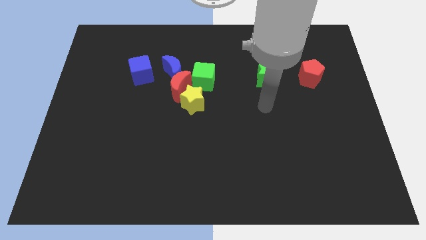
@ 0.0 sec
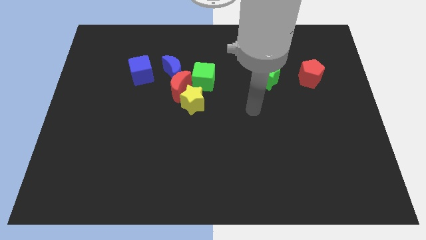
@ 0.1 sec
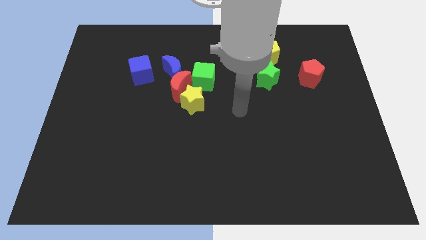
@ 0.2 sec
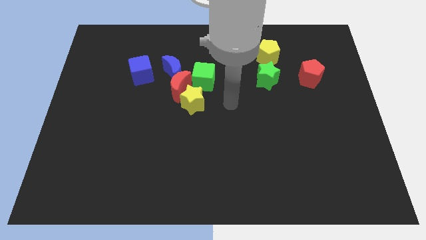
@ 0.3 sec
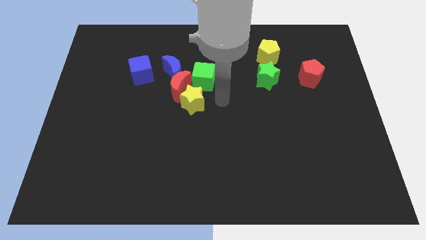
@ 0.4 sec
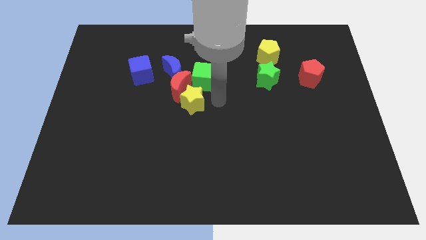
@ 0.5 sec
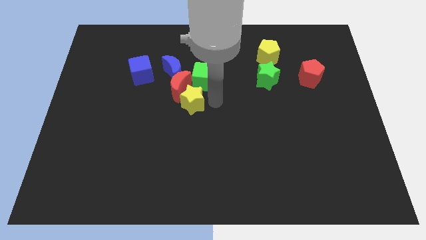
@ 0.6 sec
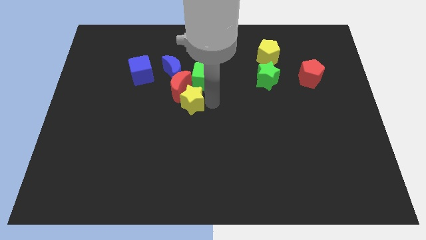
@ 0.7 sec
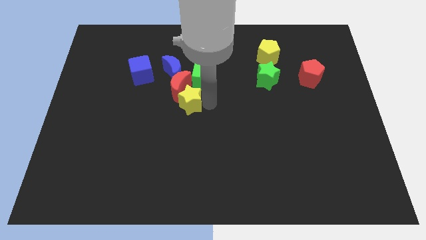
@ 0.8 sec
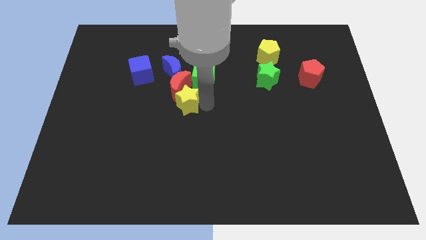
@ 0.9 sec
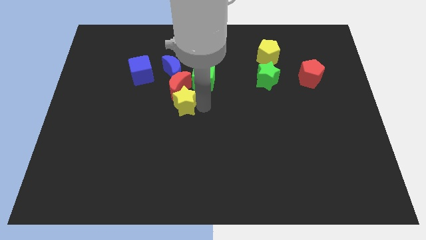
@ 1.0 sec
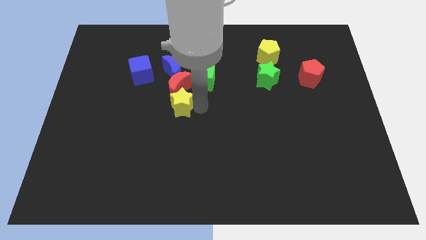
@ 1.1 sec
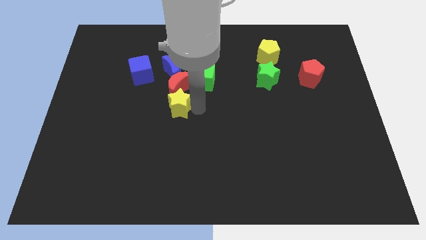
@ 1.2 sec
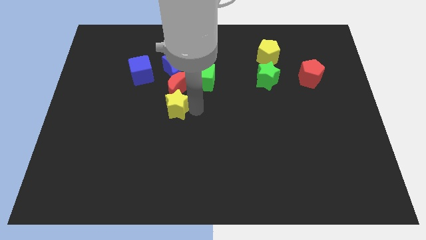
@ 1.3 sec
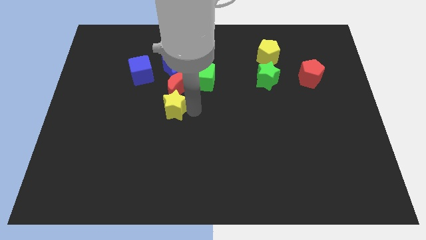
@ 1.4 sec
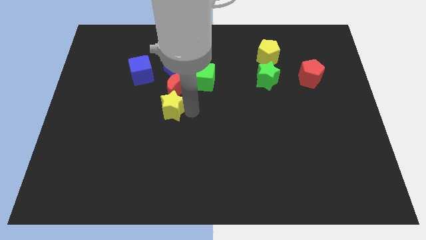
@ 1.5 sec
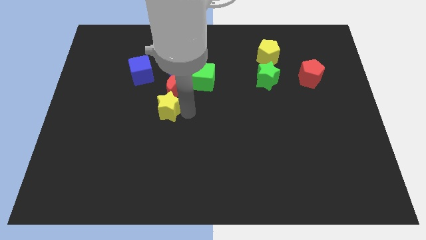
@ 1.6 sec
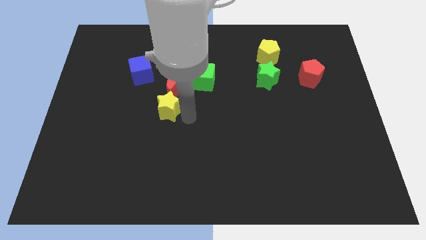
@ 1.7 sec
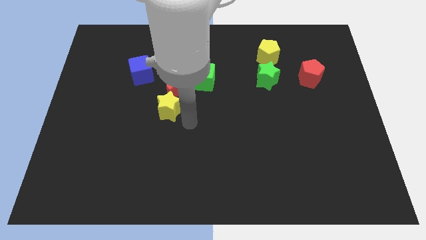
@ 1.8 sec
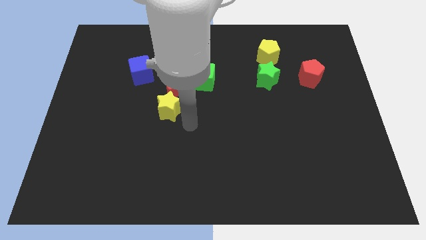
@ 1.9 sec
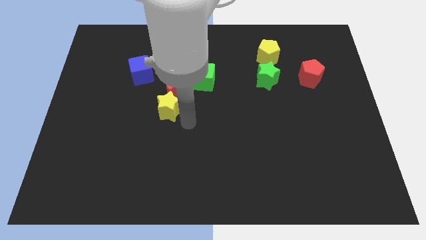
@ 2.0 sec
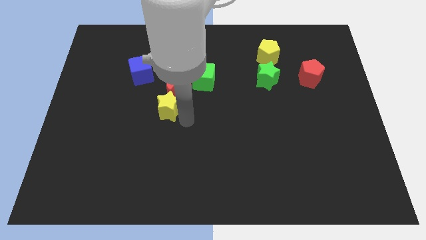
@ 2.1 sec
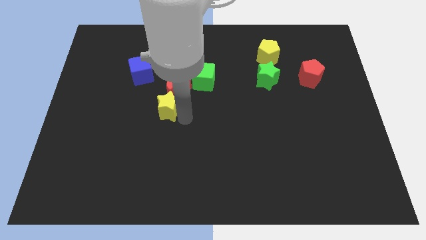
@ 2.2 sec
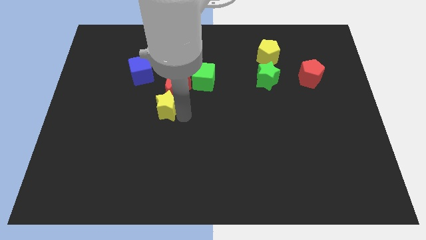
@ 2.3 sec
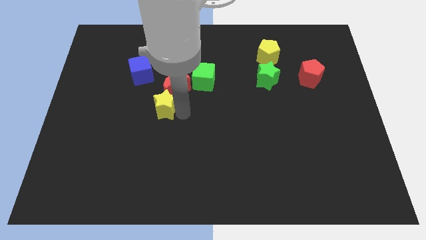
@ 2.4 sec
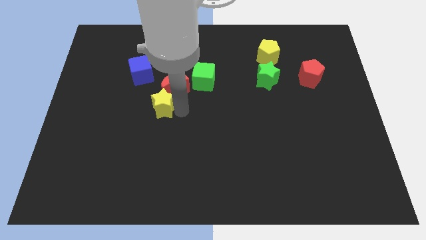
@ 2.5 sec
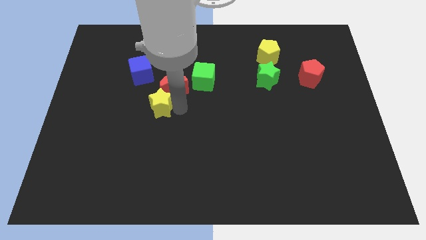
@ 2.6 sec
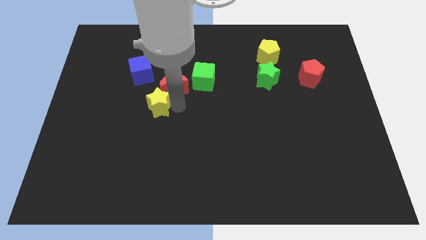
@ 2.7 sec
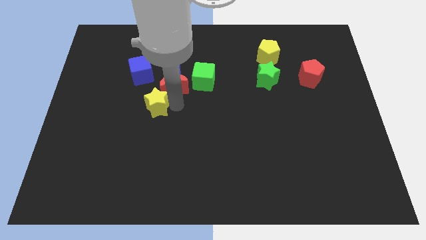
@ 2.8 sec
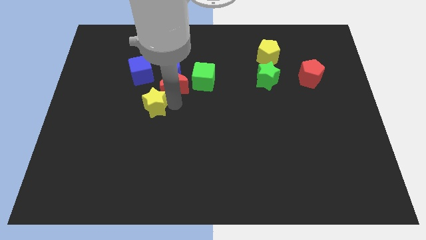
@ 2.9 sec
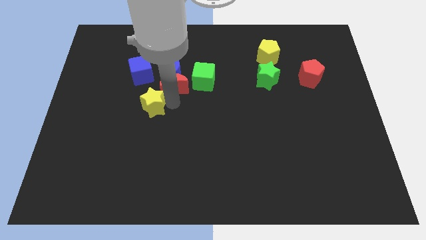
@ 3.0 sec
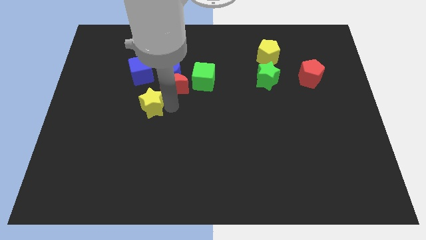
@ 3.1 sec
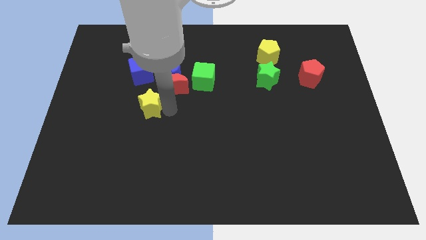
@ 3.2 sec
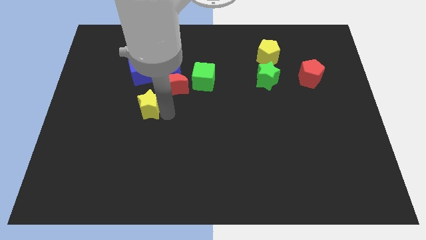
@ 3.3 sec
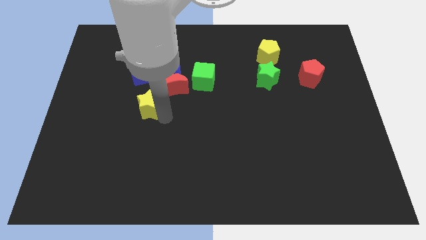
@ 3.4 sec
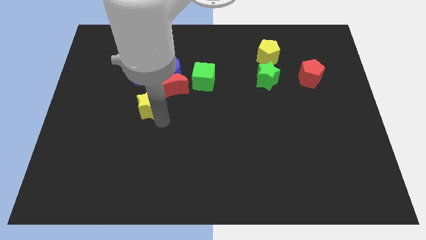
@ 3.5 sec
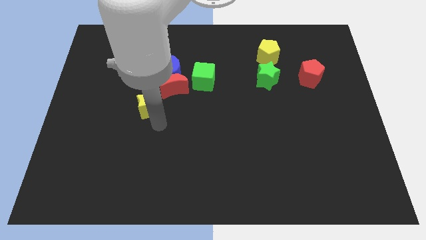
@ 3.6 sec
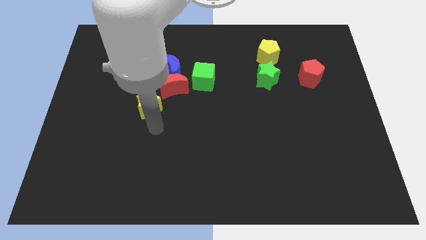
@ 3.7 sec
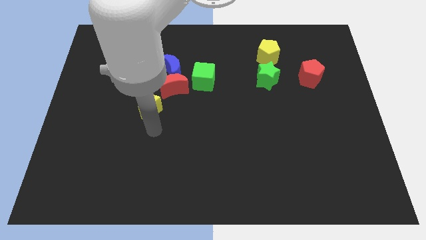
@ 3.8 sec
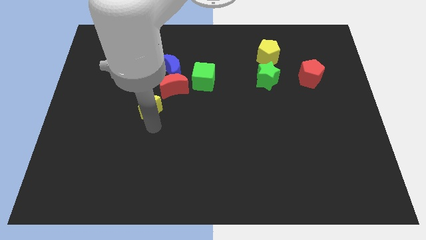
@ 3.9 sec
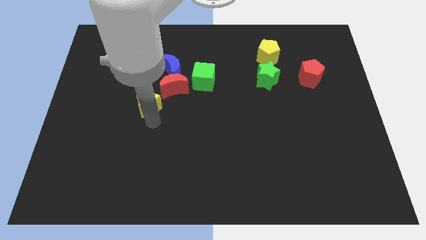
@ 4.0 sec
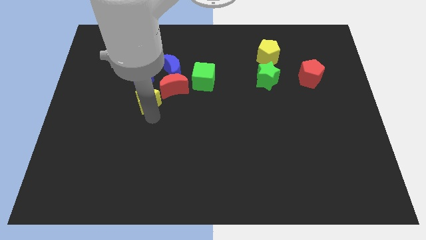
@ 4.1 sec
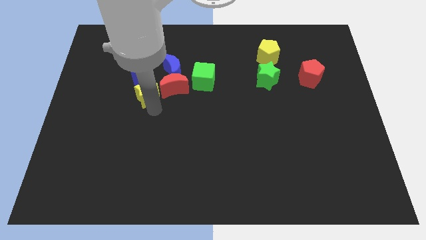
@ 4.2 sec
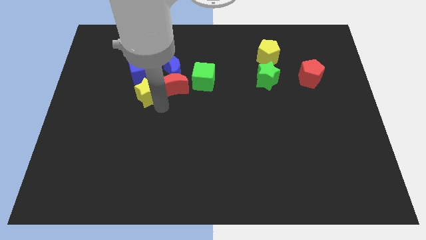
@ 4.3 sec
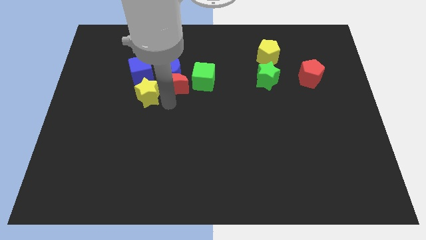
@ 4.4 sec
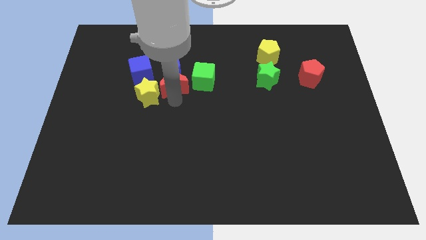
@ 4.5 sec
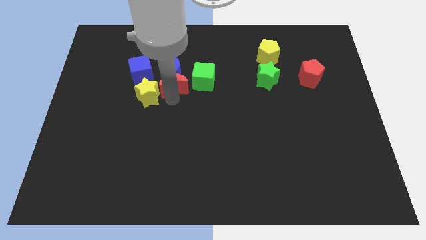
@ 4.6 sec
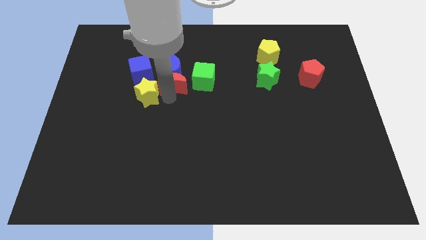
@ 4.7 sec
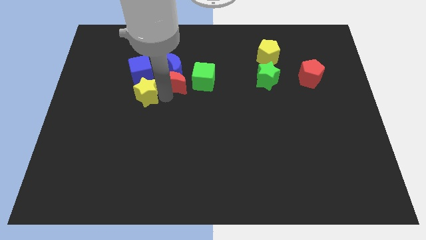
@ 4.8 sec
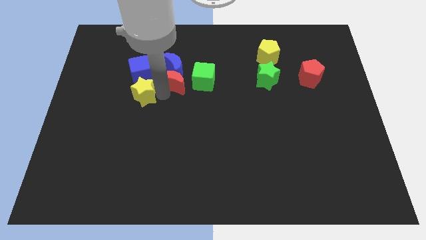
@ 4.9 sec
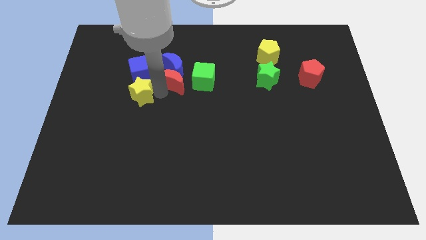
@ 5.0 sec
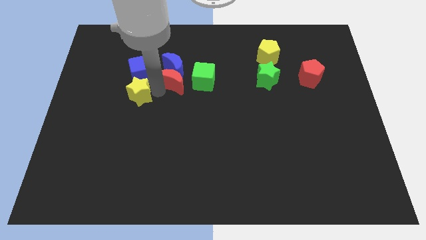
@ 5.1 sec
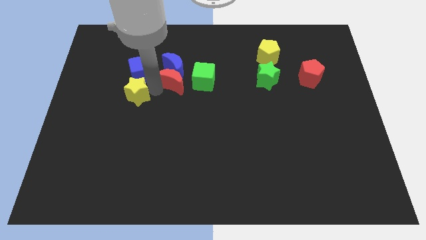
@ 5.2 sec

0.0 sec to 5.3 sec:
push the yellow star diagonally down and to the left of the blue cube

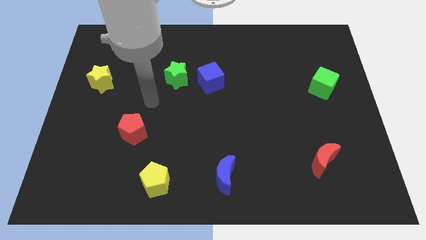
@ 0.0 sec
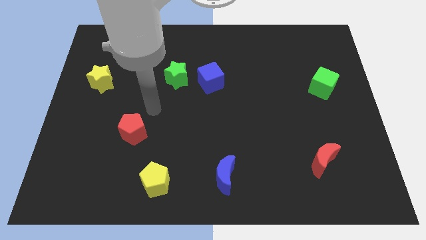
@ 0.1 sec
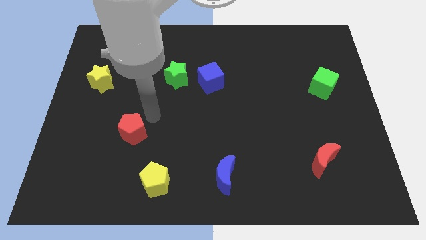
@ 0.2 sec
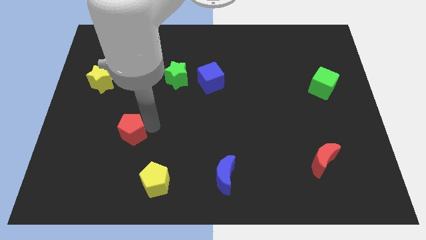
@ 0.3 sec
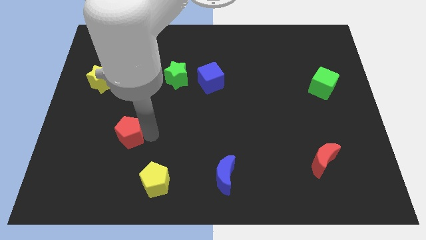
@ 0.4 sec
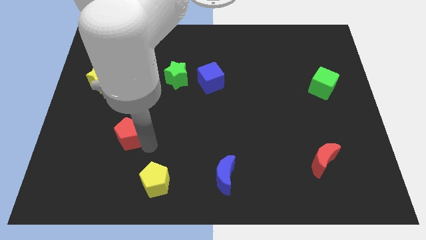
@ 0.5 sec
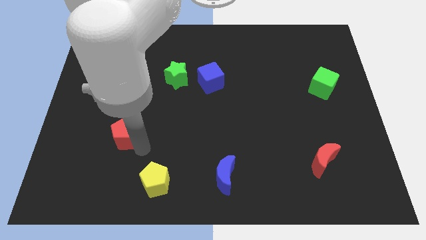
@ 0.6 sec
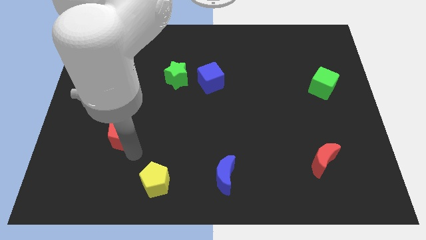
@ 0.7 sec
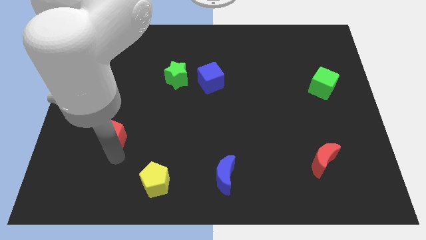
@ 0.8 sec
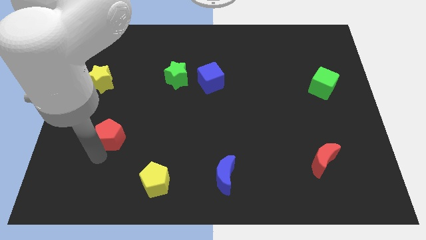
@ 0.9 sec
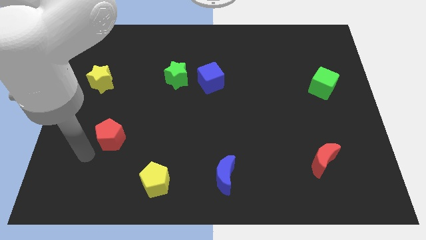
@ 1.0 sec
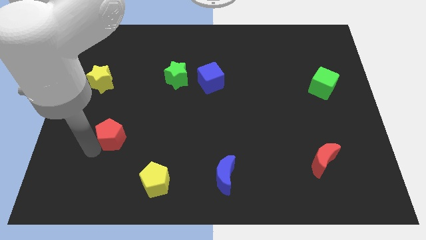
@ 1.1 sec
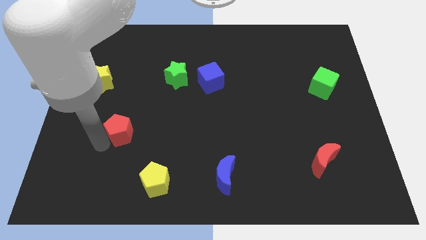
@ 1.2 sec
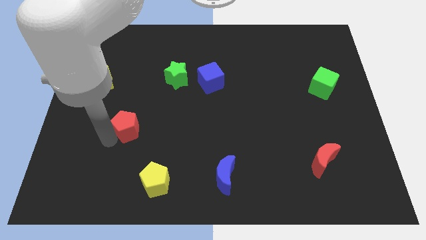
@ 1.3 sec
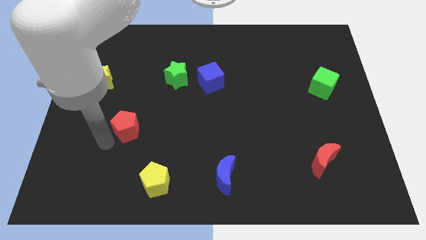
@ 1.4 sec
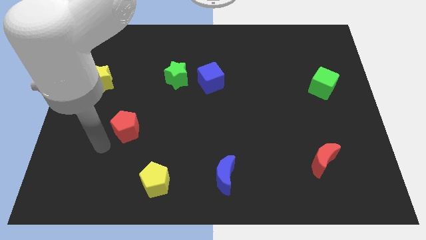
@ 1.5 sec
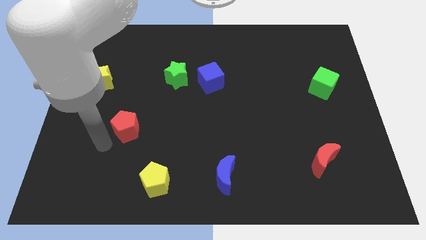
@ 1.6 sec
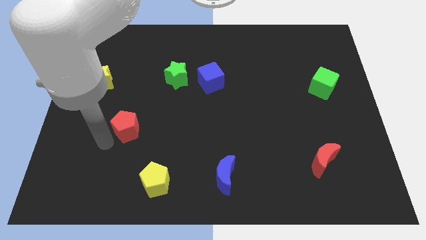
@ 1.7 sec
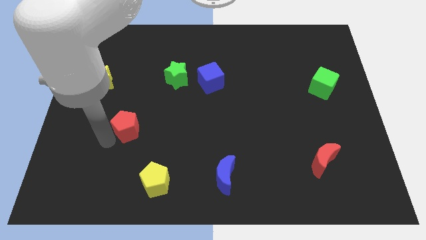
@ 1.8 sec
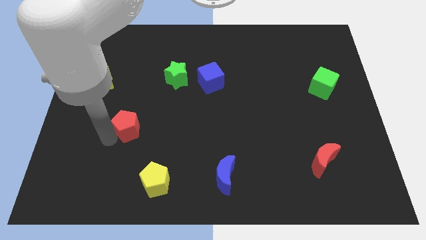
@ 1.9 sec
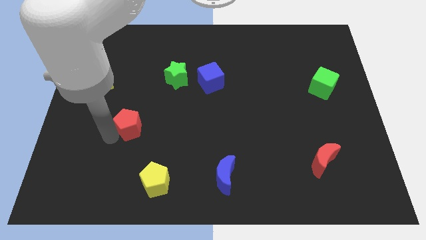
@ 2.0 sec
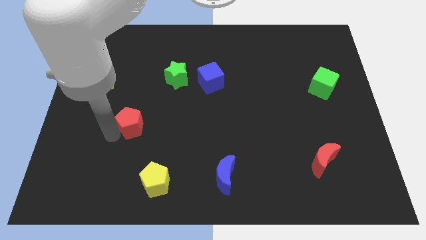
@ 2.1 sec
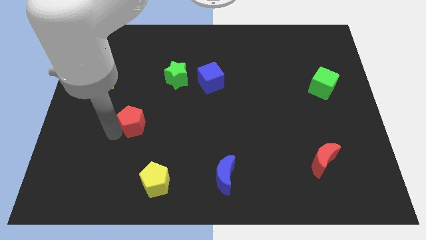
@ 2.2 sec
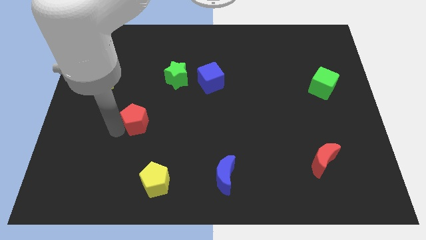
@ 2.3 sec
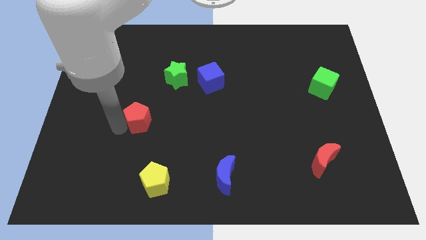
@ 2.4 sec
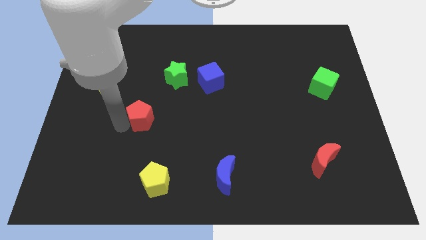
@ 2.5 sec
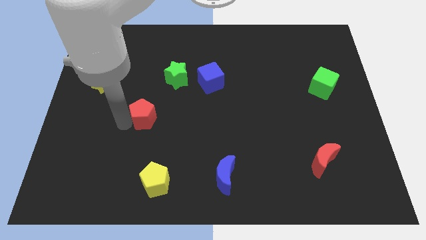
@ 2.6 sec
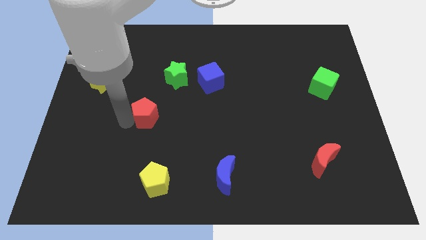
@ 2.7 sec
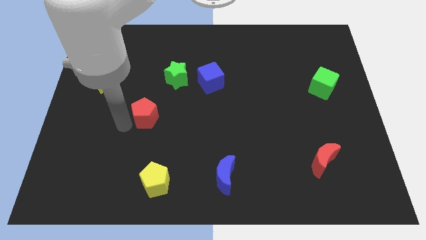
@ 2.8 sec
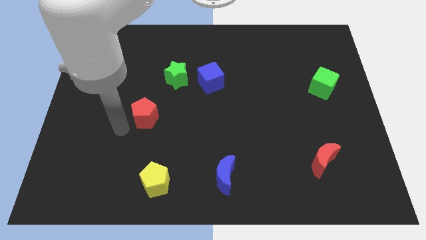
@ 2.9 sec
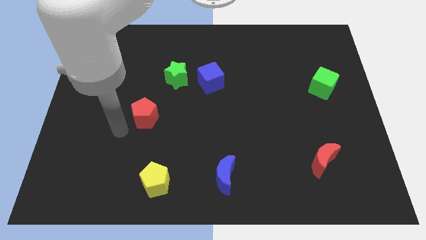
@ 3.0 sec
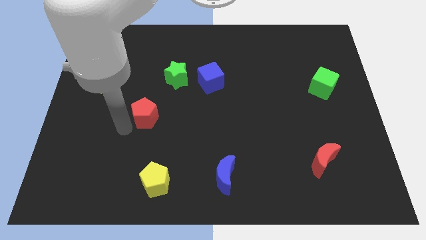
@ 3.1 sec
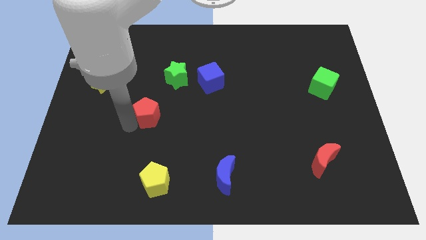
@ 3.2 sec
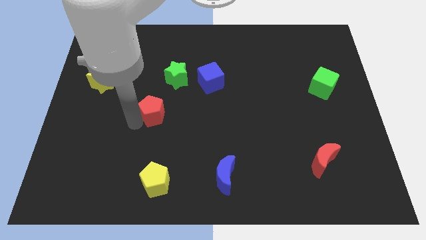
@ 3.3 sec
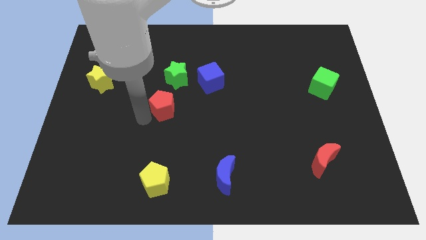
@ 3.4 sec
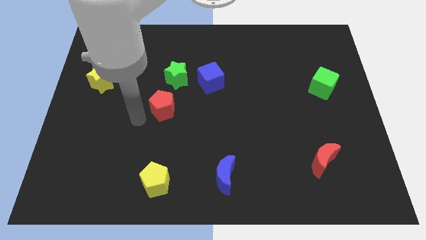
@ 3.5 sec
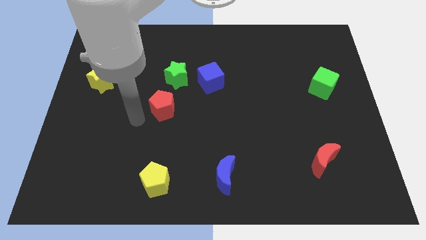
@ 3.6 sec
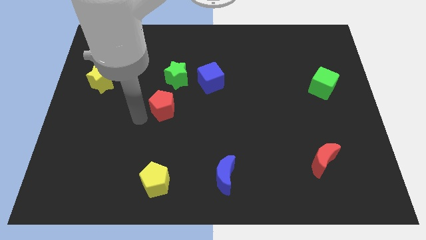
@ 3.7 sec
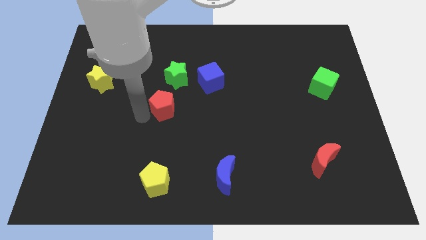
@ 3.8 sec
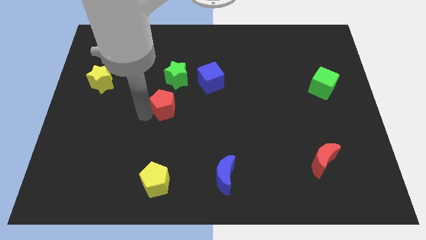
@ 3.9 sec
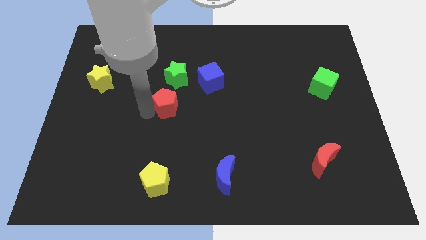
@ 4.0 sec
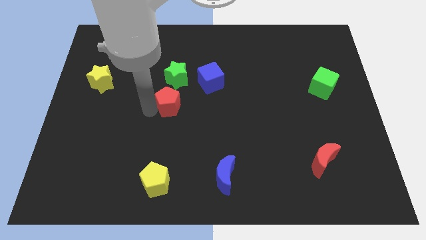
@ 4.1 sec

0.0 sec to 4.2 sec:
move the red pentagon diagonally down and to the left of the blue cube
